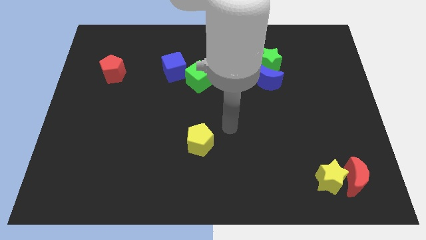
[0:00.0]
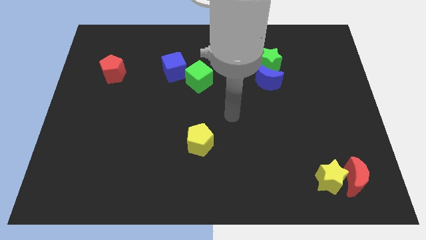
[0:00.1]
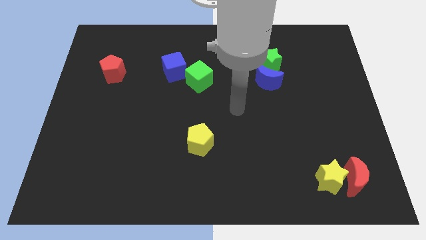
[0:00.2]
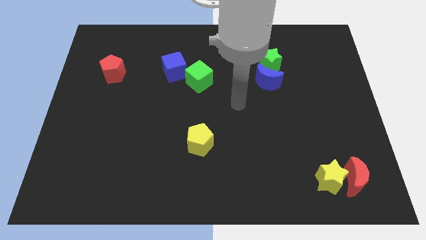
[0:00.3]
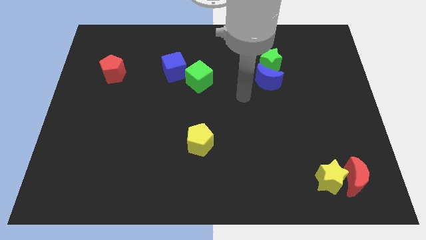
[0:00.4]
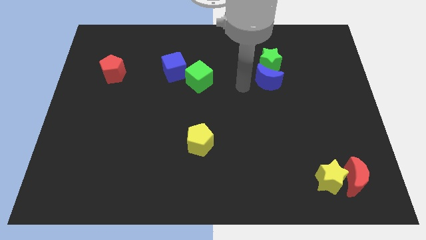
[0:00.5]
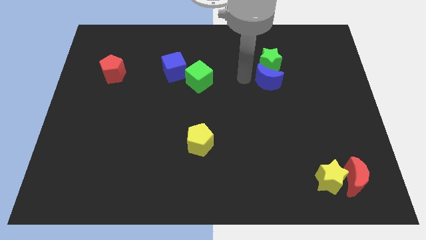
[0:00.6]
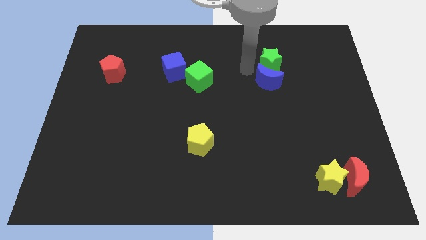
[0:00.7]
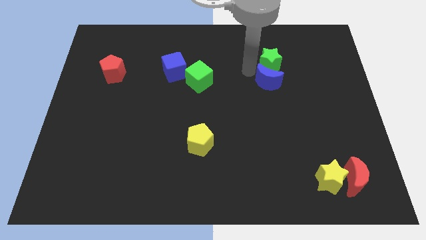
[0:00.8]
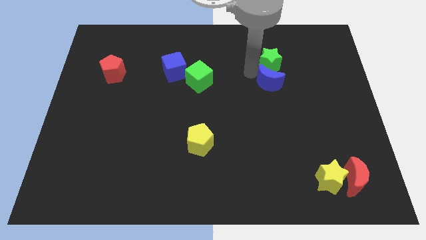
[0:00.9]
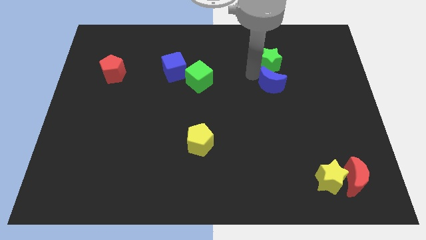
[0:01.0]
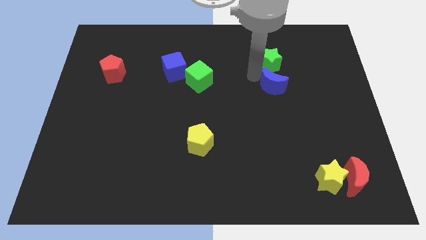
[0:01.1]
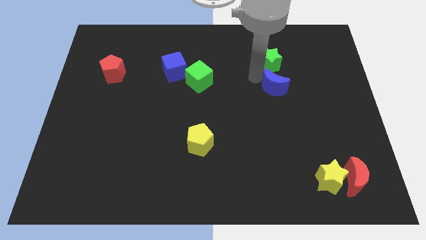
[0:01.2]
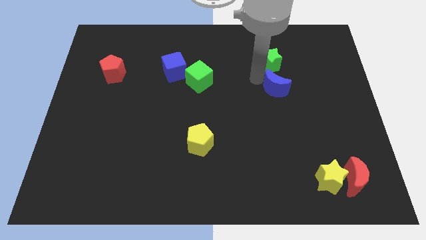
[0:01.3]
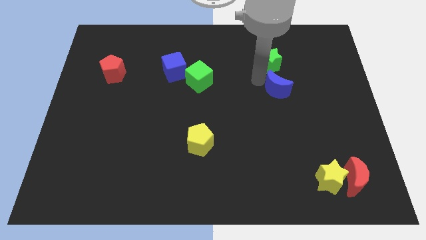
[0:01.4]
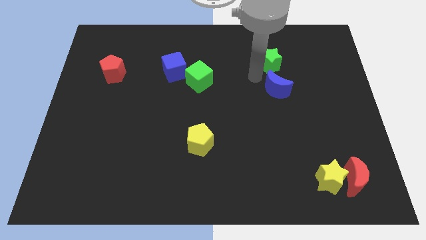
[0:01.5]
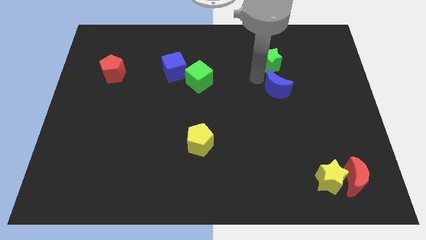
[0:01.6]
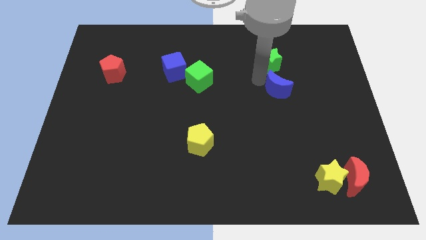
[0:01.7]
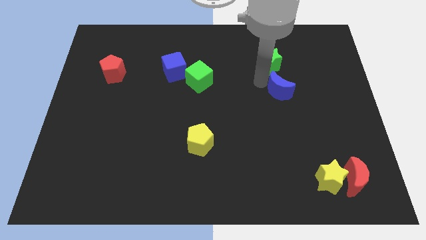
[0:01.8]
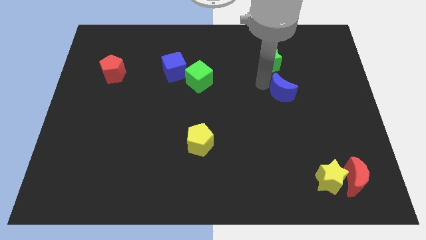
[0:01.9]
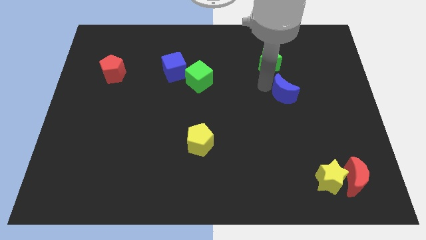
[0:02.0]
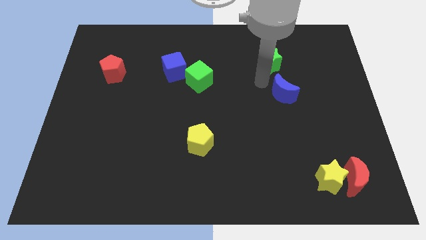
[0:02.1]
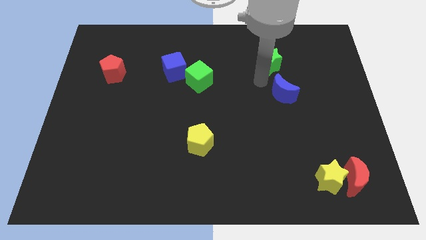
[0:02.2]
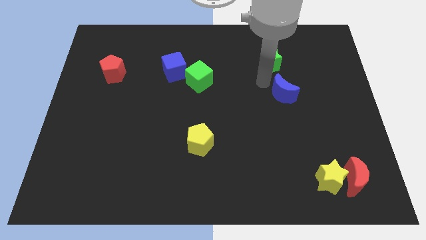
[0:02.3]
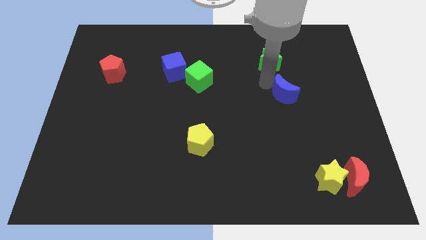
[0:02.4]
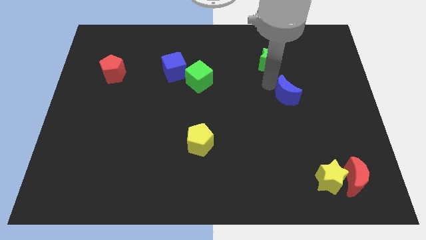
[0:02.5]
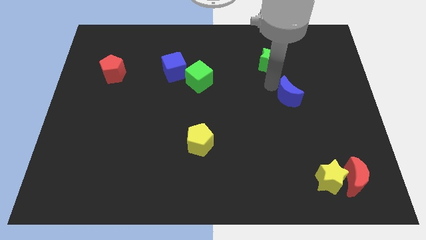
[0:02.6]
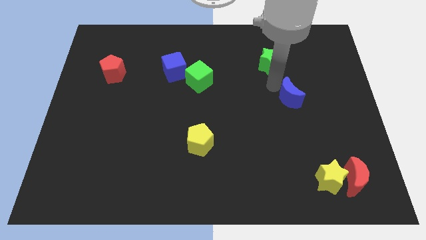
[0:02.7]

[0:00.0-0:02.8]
slightly push the blue moon diagonally down and right

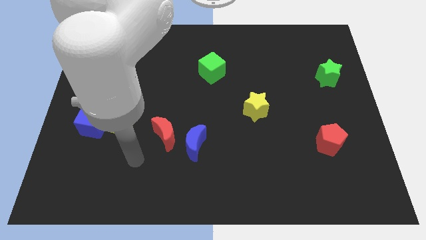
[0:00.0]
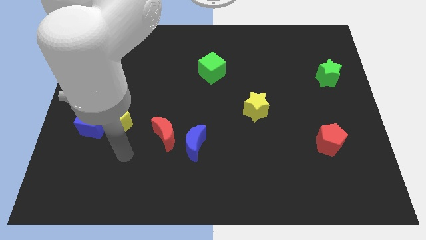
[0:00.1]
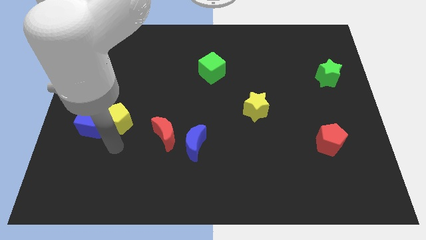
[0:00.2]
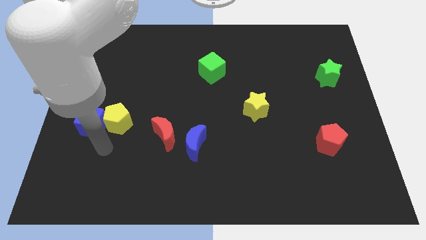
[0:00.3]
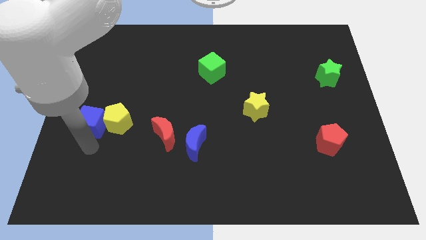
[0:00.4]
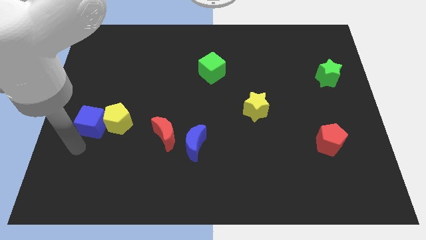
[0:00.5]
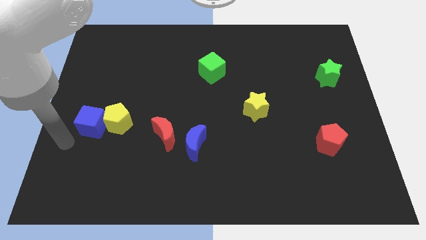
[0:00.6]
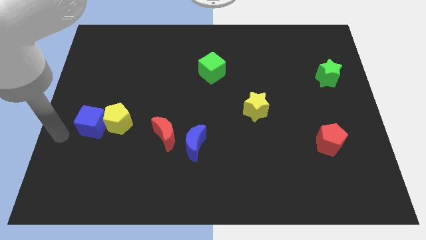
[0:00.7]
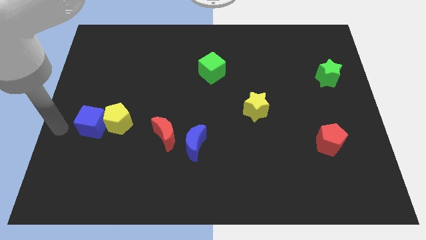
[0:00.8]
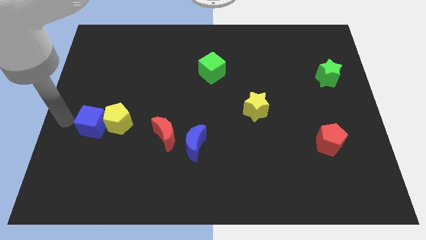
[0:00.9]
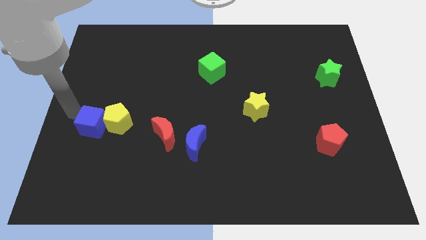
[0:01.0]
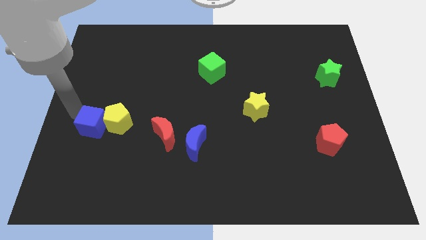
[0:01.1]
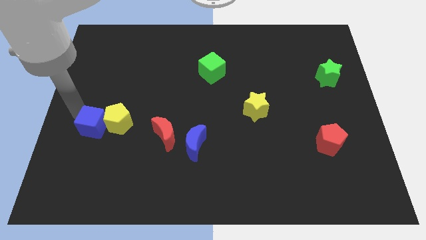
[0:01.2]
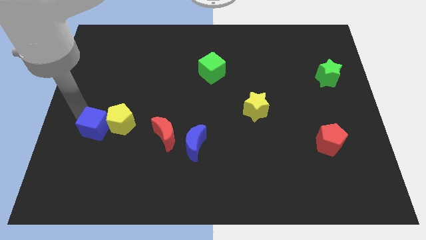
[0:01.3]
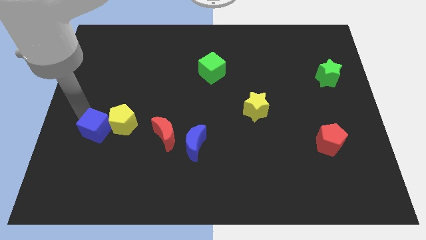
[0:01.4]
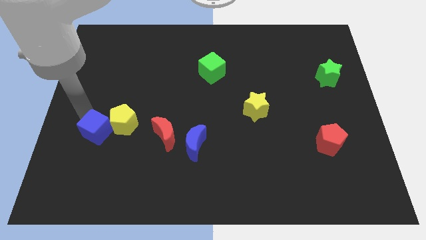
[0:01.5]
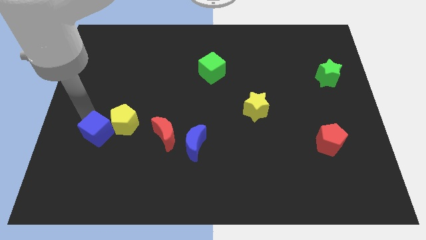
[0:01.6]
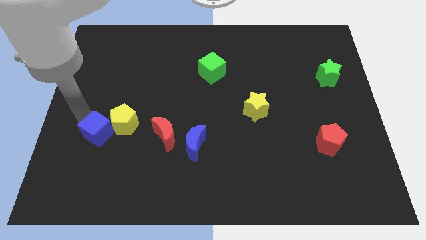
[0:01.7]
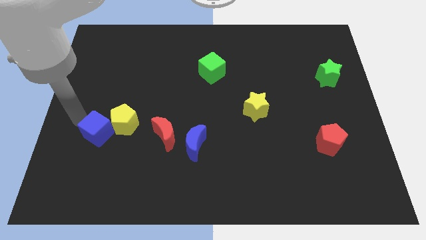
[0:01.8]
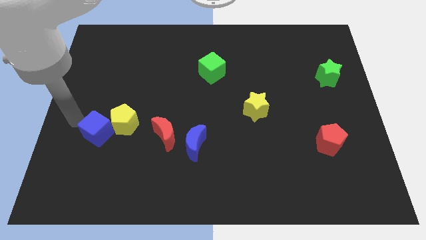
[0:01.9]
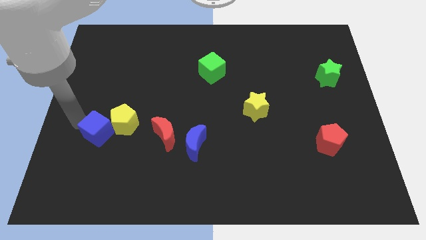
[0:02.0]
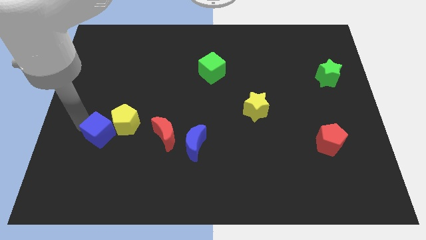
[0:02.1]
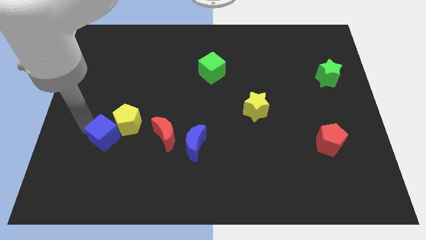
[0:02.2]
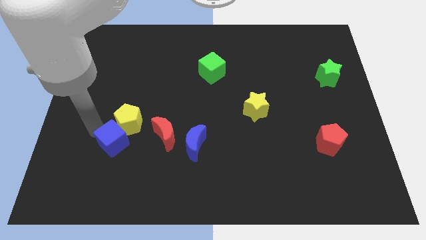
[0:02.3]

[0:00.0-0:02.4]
push the blue cube a little bit diagonally downwards and right

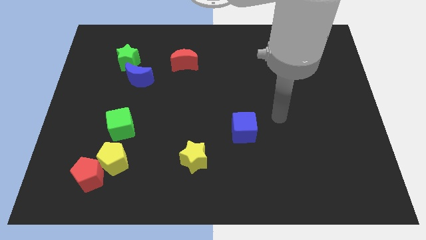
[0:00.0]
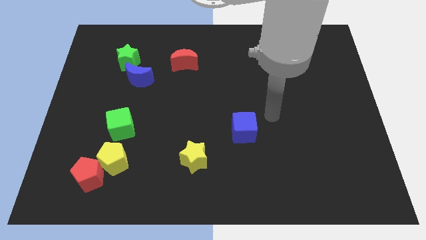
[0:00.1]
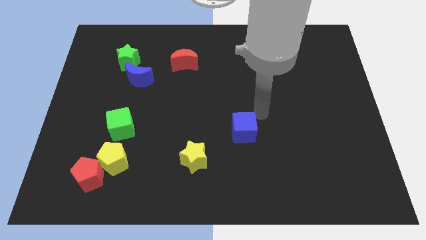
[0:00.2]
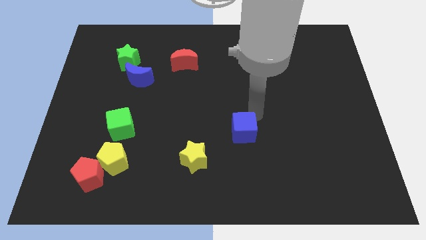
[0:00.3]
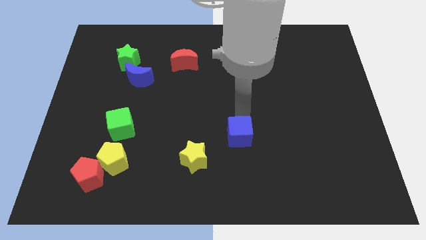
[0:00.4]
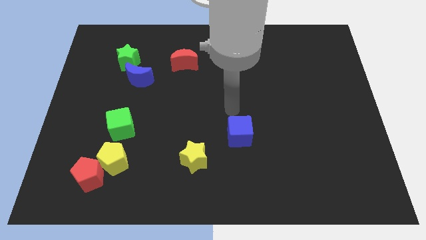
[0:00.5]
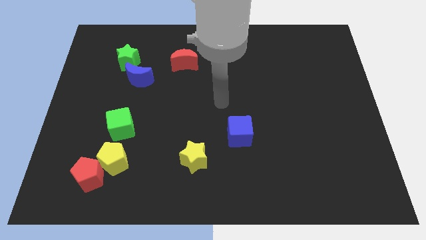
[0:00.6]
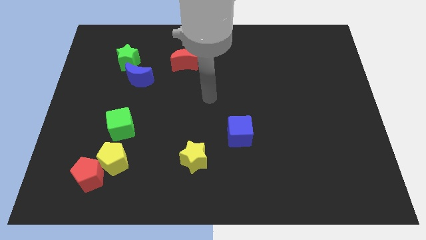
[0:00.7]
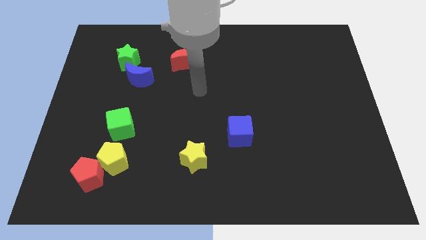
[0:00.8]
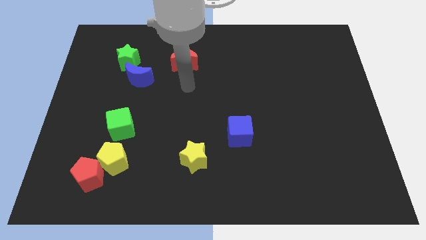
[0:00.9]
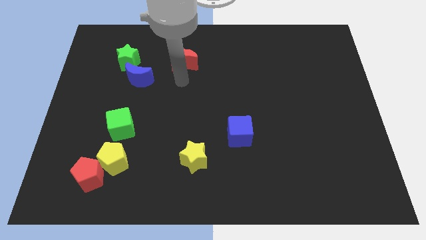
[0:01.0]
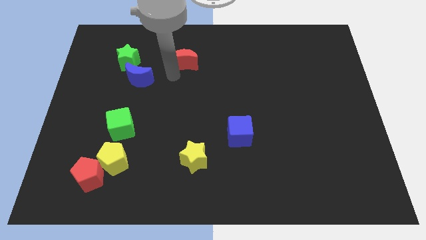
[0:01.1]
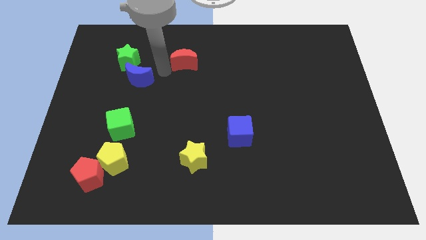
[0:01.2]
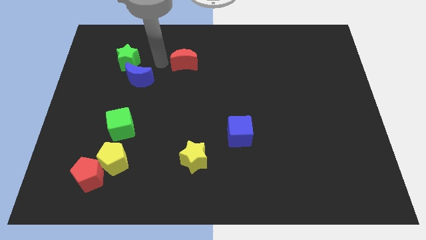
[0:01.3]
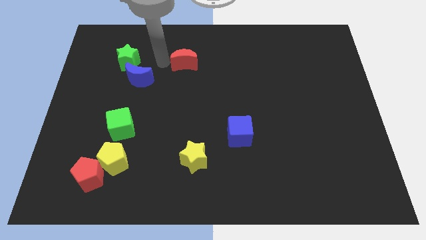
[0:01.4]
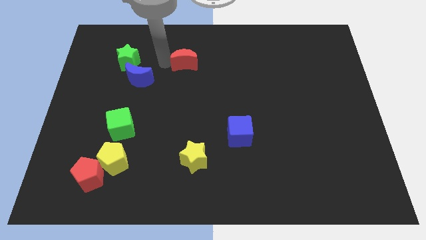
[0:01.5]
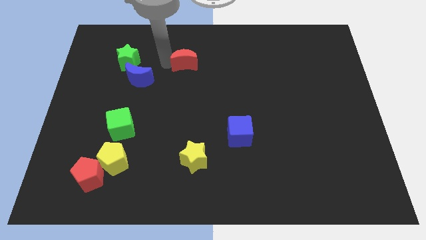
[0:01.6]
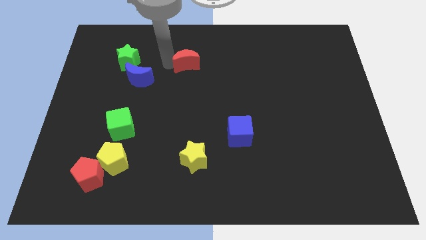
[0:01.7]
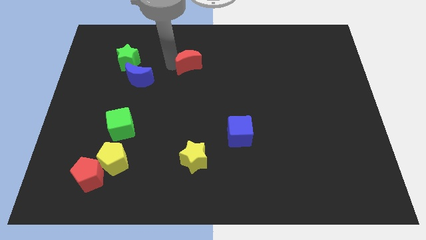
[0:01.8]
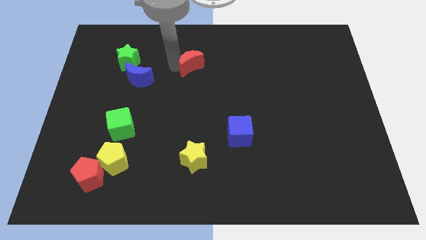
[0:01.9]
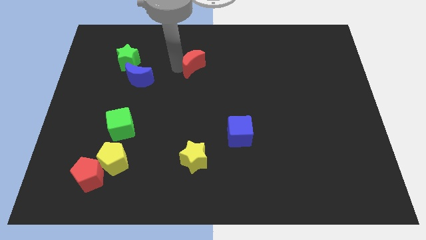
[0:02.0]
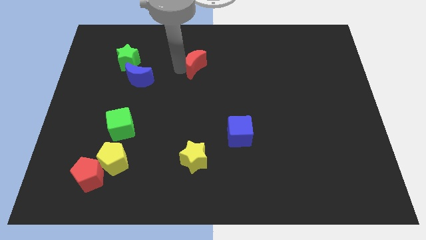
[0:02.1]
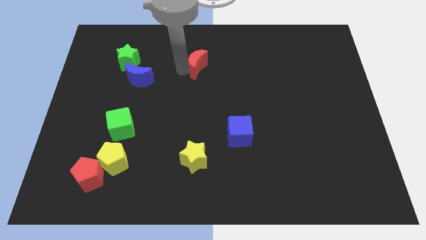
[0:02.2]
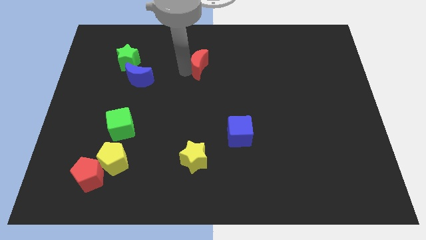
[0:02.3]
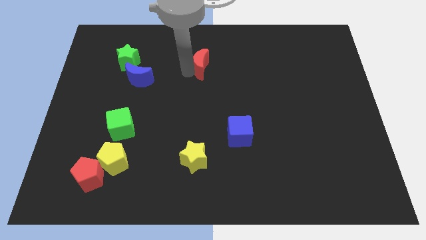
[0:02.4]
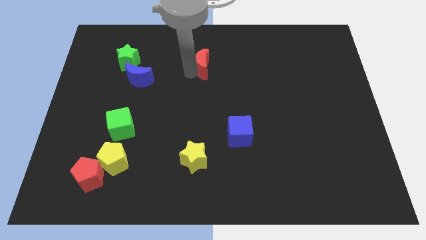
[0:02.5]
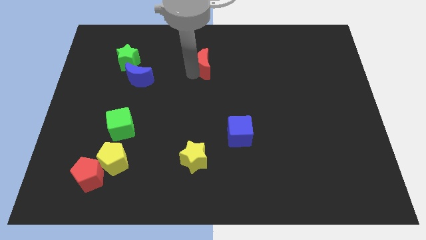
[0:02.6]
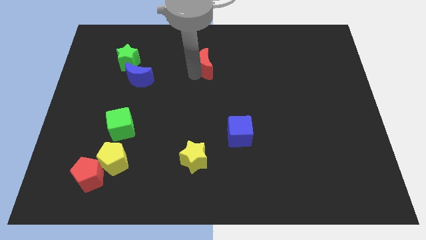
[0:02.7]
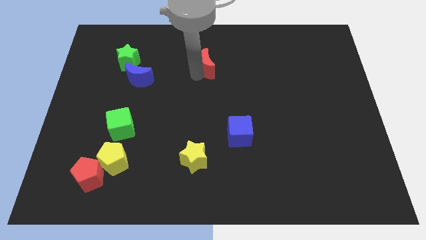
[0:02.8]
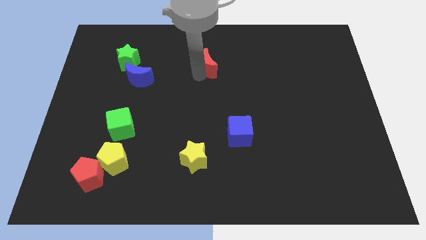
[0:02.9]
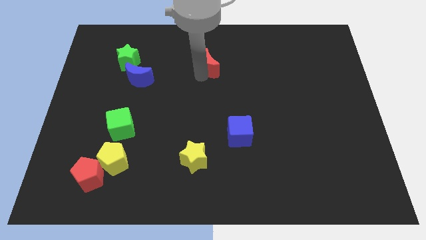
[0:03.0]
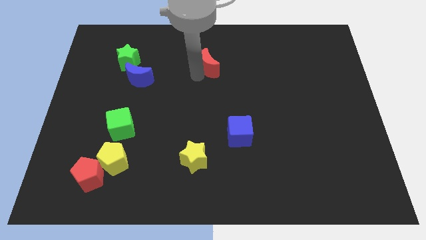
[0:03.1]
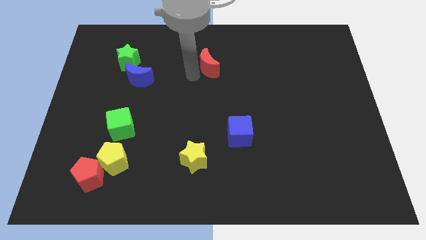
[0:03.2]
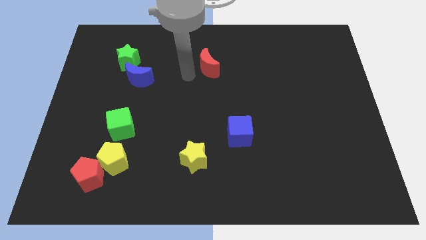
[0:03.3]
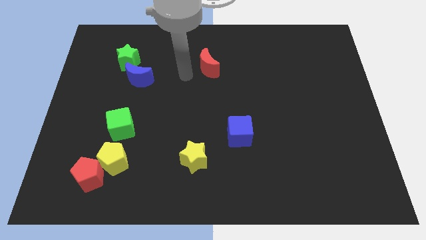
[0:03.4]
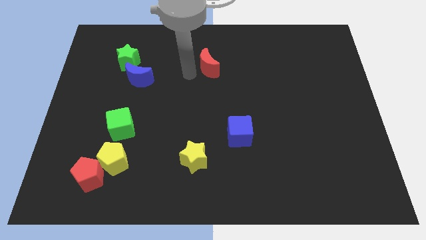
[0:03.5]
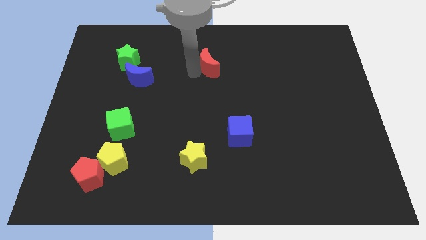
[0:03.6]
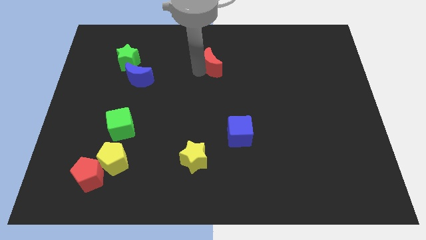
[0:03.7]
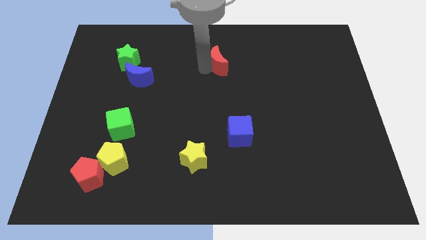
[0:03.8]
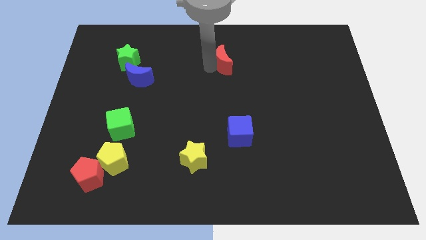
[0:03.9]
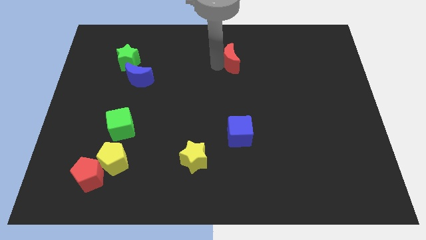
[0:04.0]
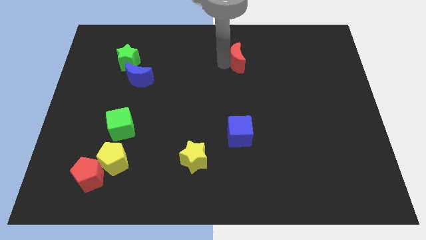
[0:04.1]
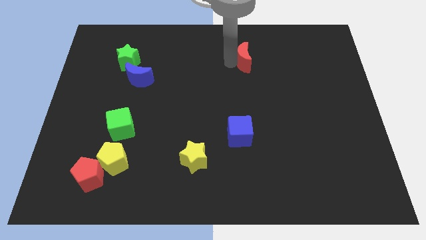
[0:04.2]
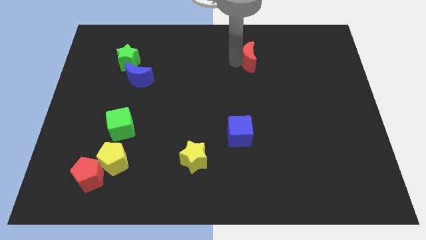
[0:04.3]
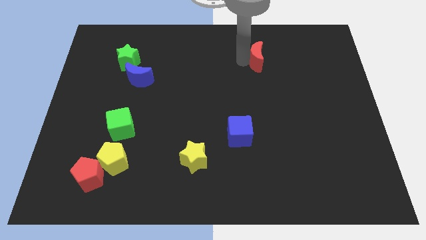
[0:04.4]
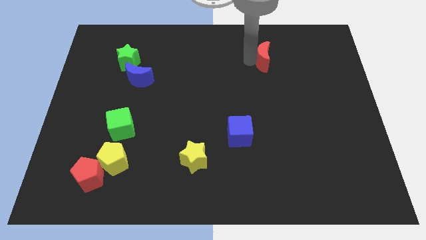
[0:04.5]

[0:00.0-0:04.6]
move the red moon to the right
